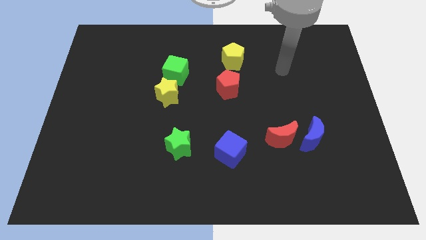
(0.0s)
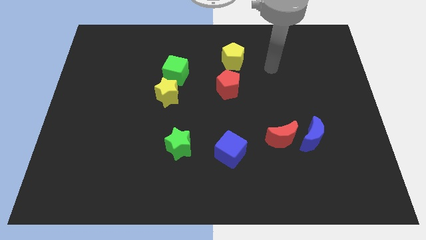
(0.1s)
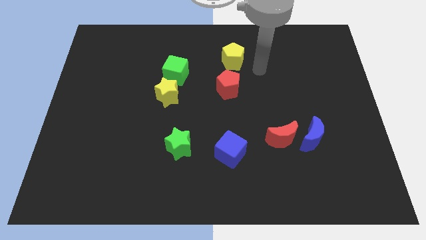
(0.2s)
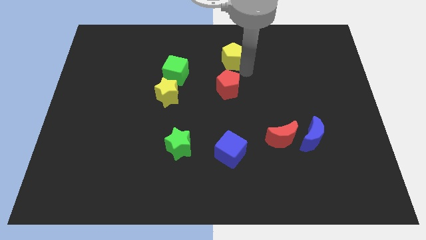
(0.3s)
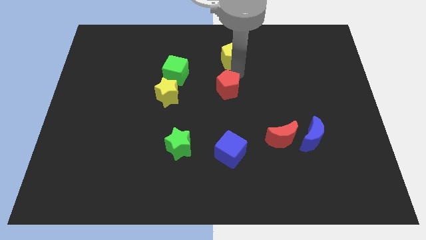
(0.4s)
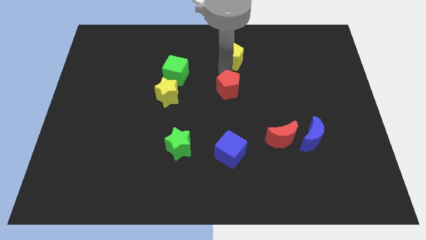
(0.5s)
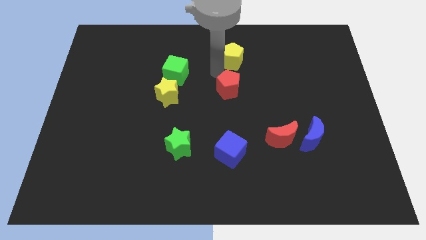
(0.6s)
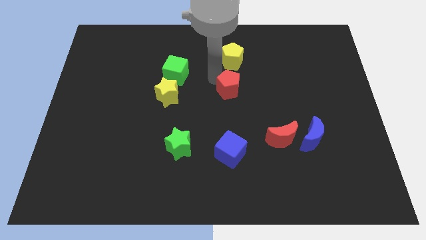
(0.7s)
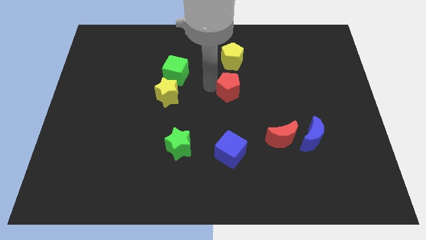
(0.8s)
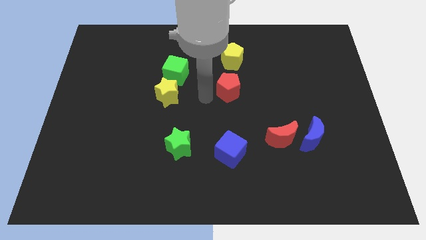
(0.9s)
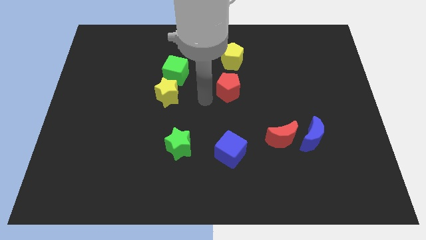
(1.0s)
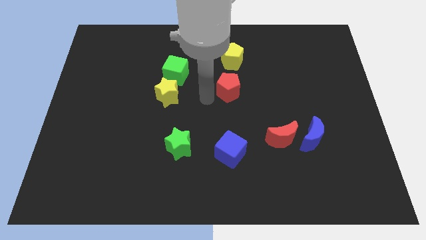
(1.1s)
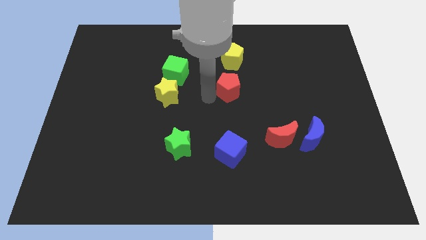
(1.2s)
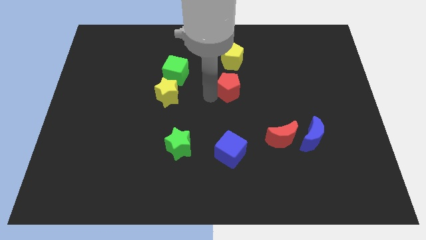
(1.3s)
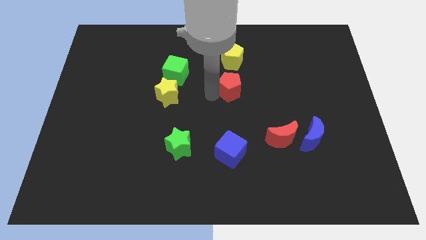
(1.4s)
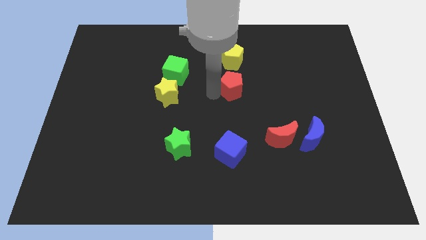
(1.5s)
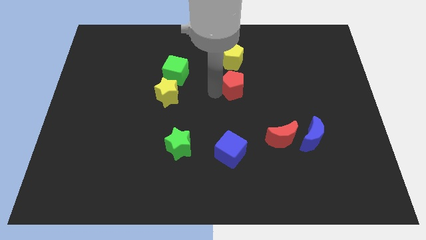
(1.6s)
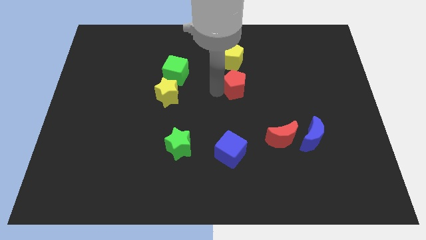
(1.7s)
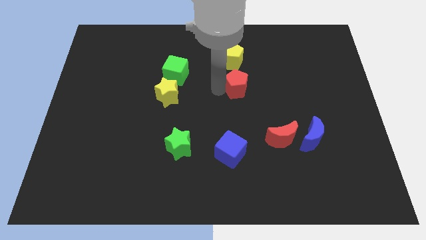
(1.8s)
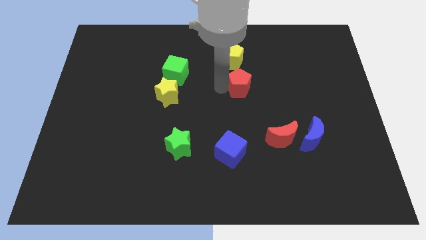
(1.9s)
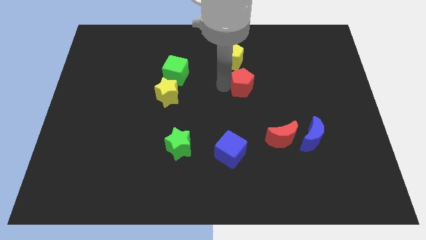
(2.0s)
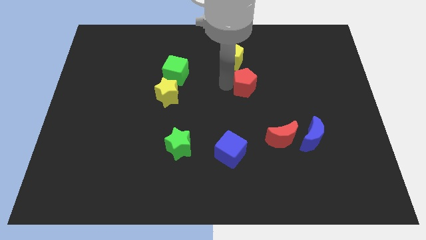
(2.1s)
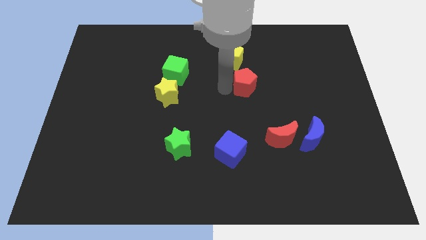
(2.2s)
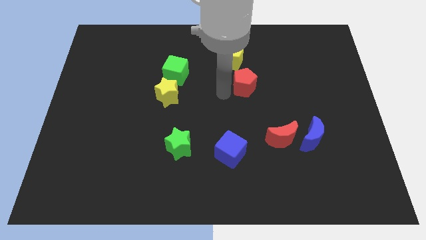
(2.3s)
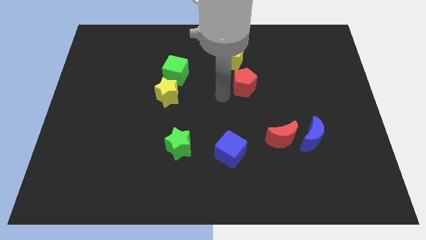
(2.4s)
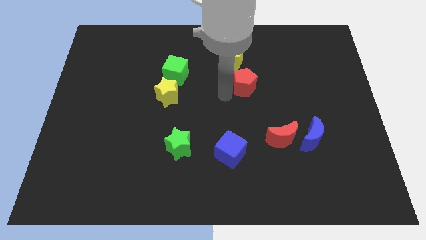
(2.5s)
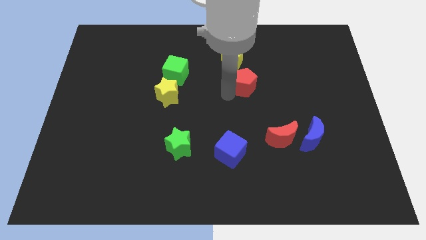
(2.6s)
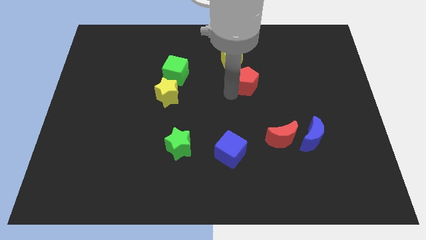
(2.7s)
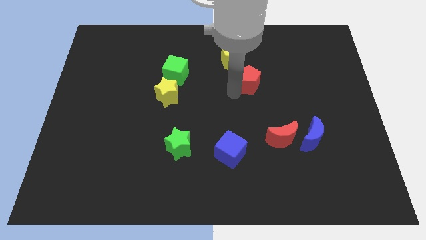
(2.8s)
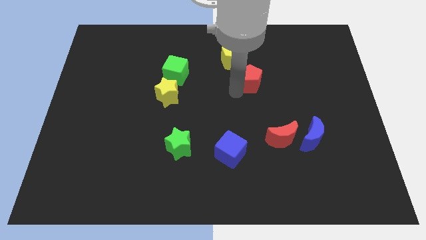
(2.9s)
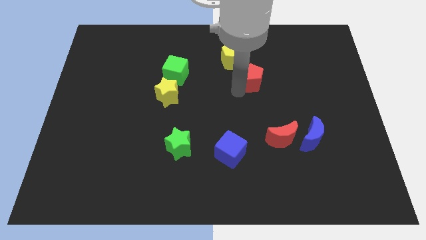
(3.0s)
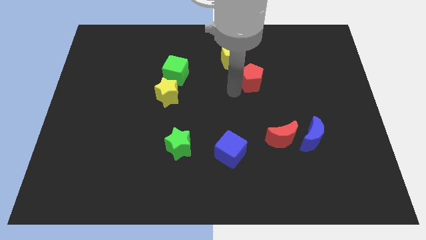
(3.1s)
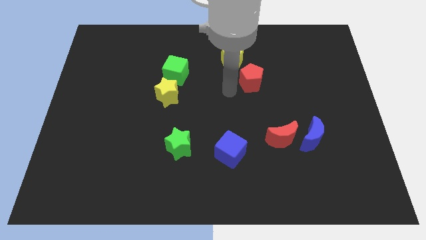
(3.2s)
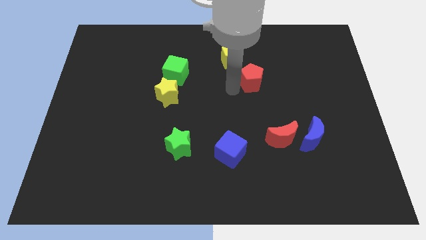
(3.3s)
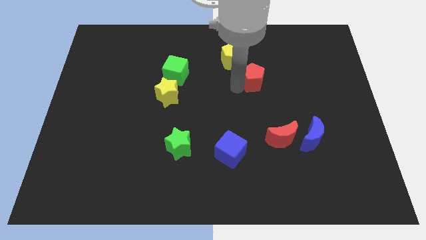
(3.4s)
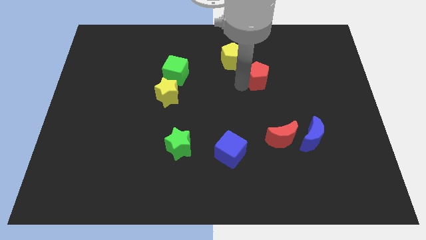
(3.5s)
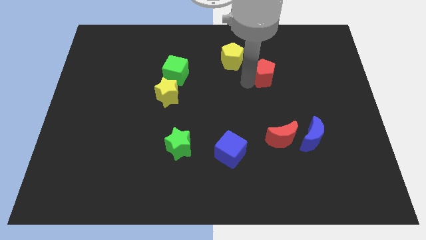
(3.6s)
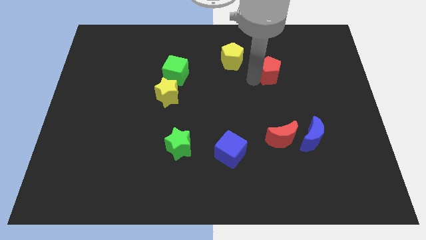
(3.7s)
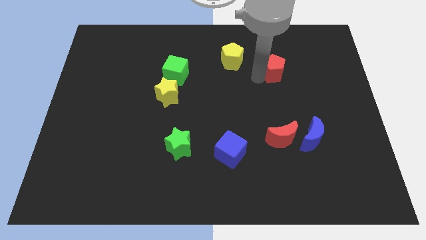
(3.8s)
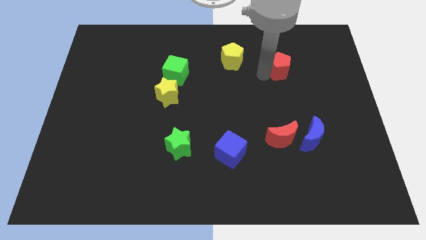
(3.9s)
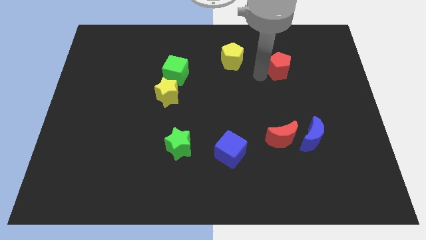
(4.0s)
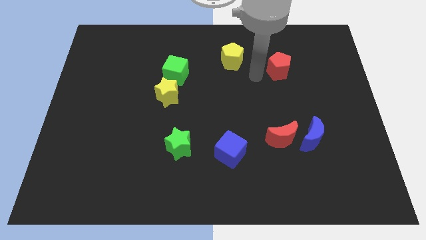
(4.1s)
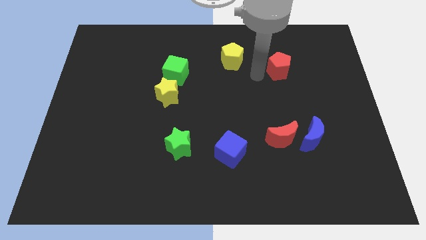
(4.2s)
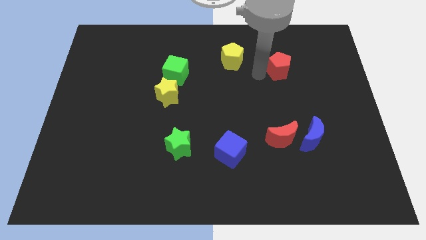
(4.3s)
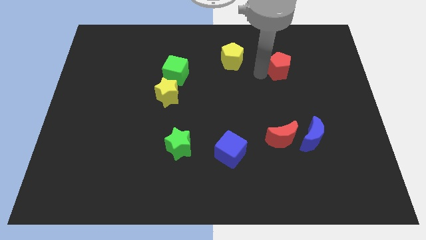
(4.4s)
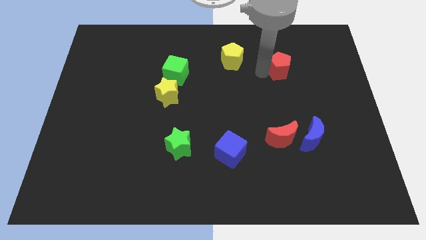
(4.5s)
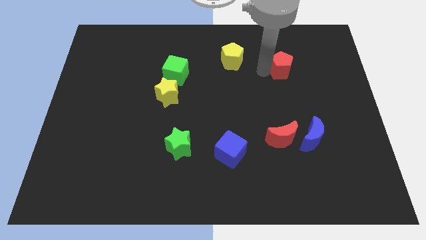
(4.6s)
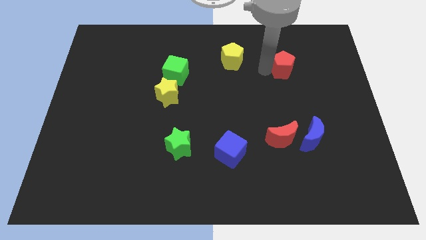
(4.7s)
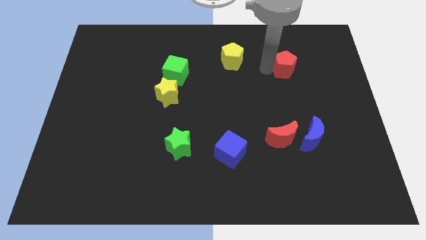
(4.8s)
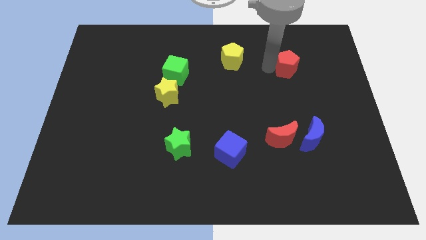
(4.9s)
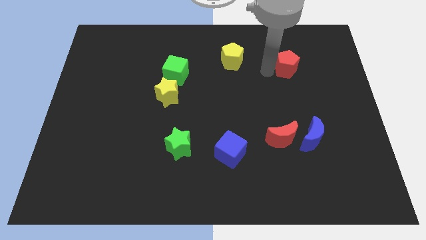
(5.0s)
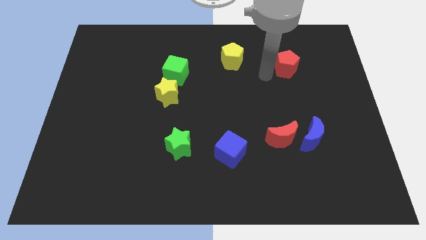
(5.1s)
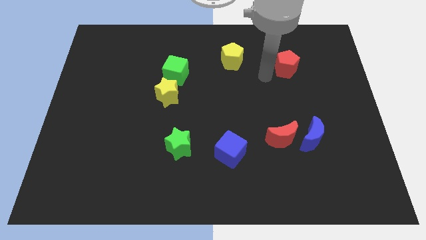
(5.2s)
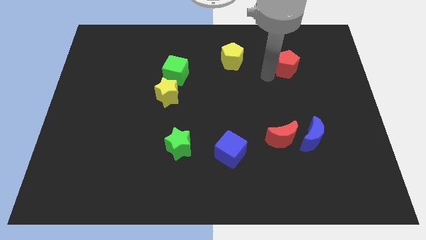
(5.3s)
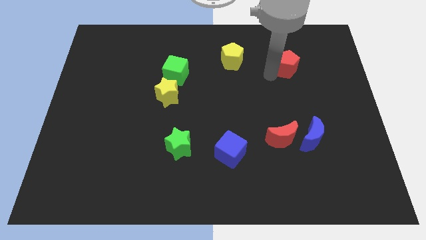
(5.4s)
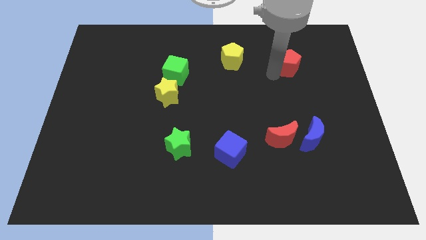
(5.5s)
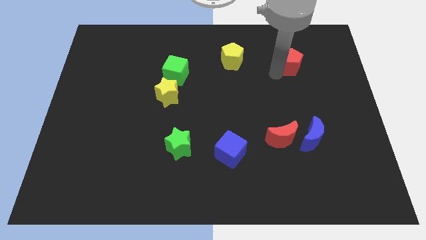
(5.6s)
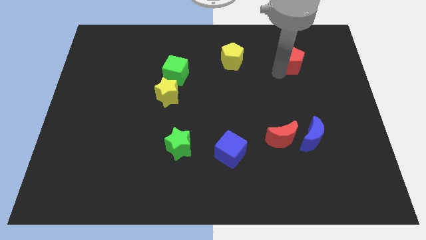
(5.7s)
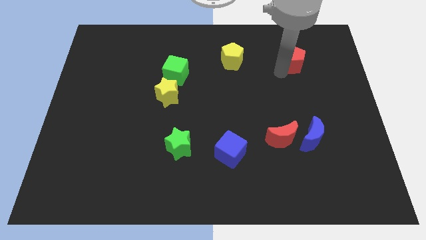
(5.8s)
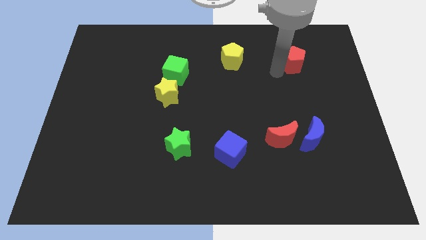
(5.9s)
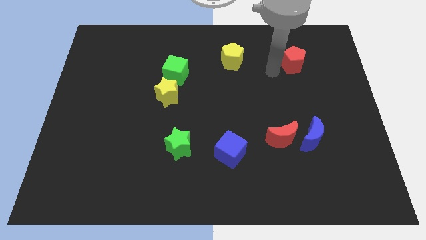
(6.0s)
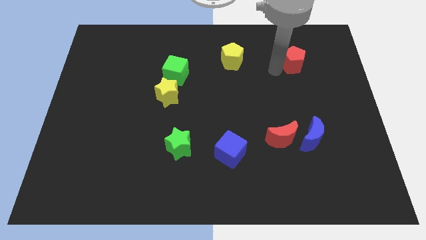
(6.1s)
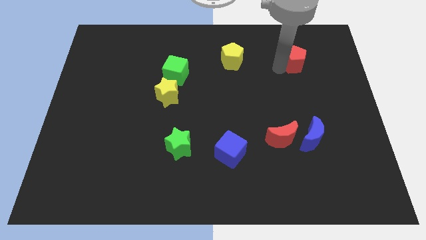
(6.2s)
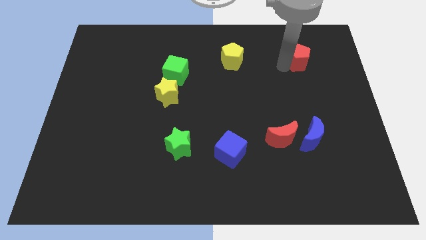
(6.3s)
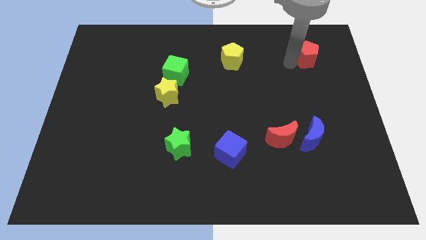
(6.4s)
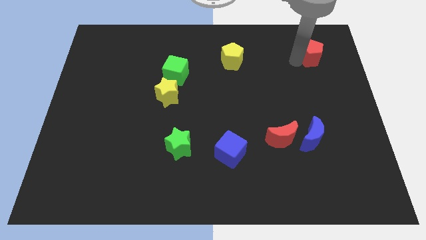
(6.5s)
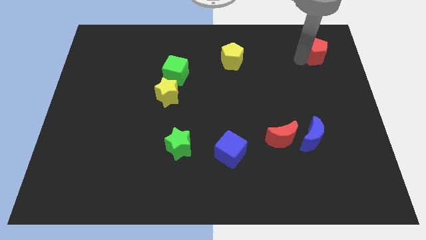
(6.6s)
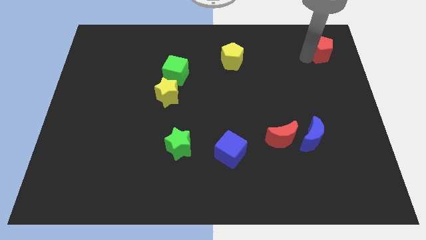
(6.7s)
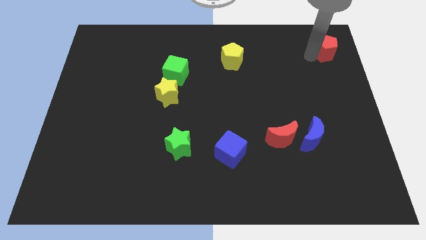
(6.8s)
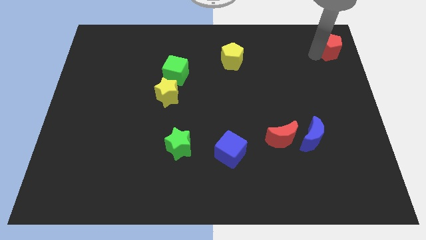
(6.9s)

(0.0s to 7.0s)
move the red pentagon to the top right corner
